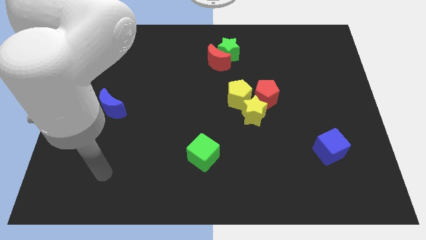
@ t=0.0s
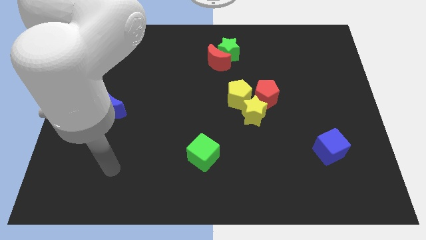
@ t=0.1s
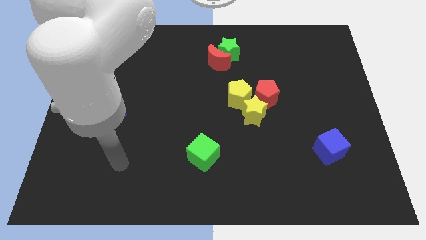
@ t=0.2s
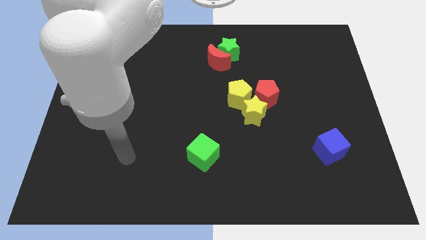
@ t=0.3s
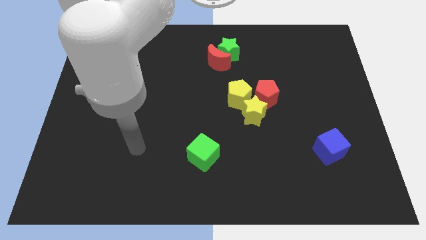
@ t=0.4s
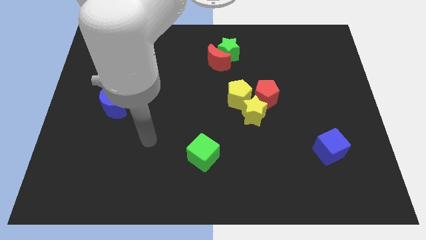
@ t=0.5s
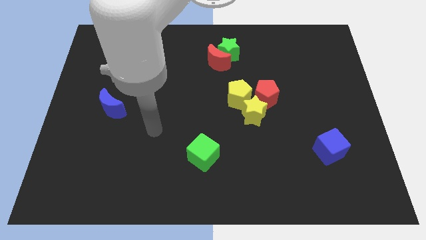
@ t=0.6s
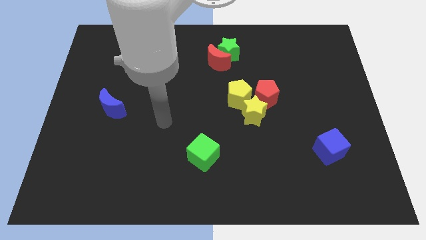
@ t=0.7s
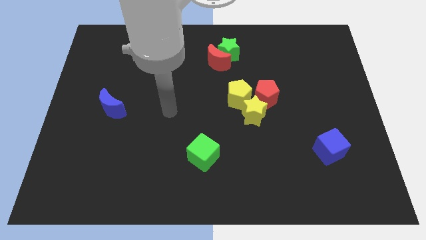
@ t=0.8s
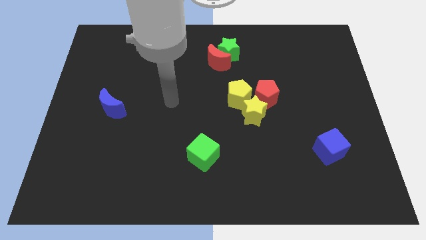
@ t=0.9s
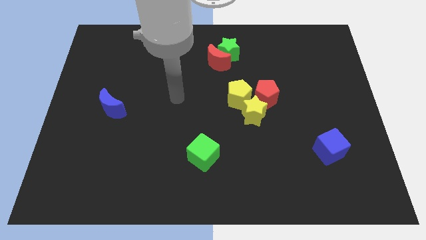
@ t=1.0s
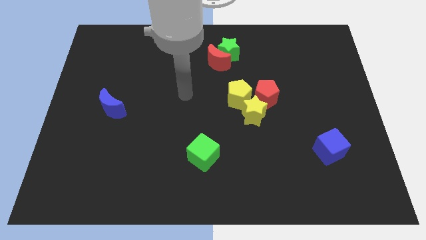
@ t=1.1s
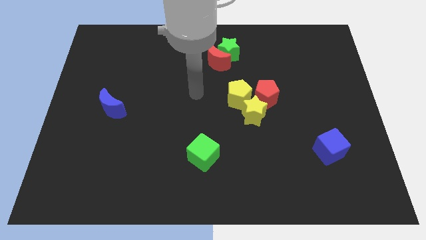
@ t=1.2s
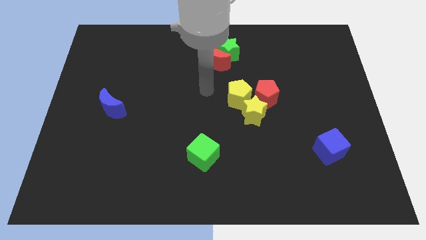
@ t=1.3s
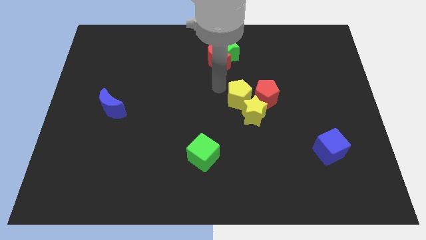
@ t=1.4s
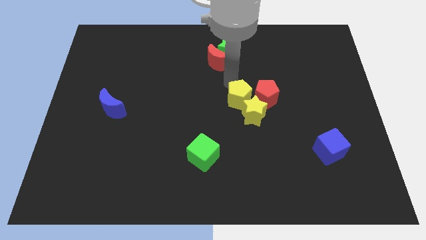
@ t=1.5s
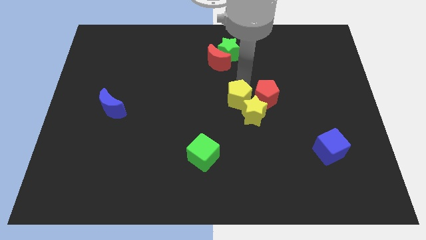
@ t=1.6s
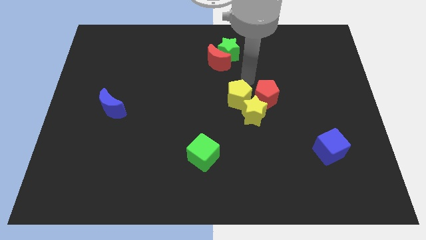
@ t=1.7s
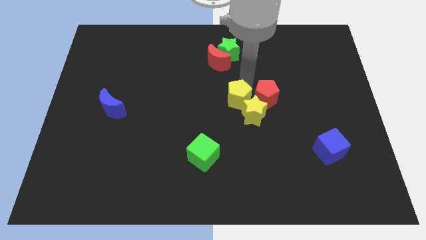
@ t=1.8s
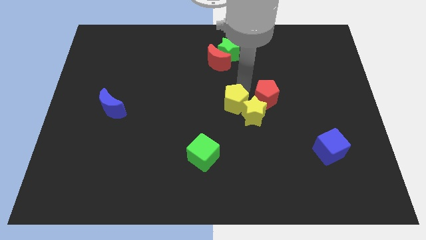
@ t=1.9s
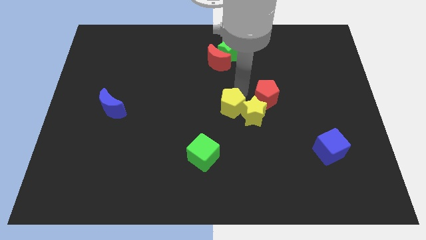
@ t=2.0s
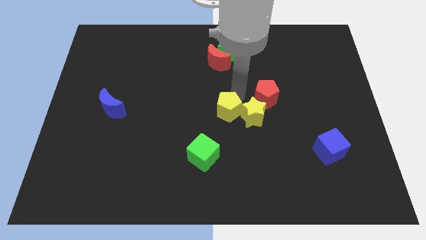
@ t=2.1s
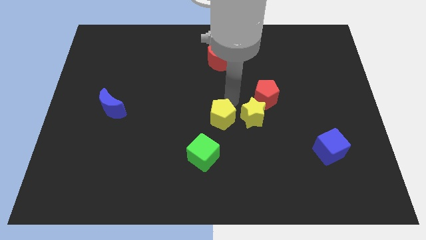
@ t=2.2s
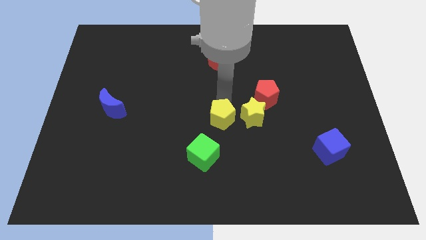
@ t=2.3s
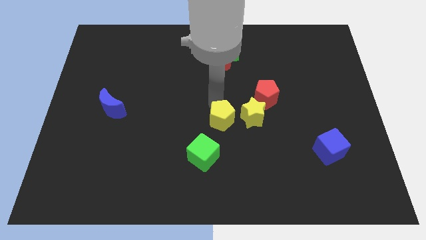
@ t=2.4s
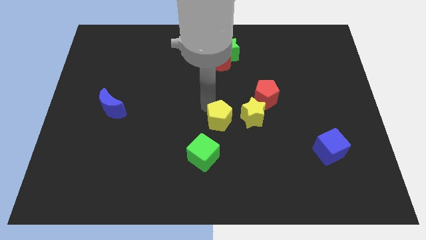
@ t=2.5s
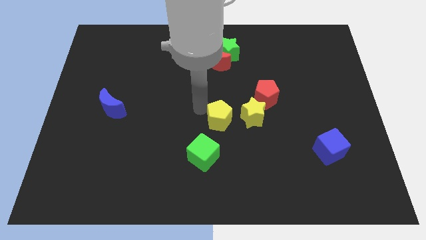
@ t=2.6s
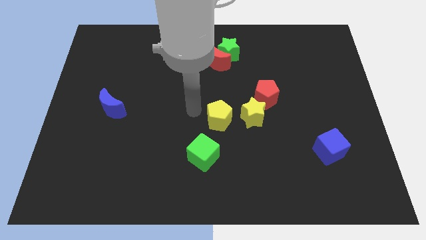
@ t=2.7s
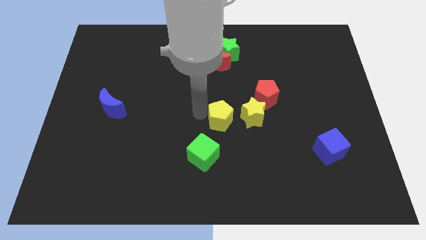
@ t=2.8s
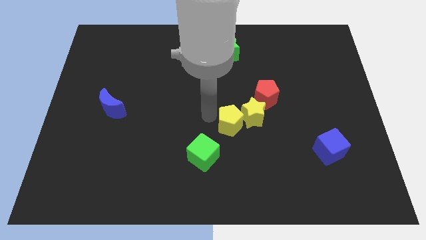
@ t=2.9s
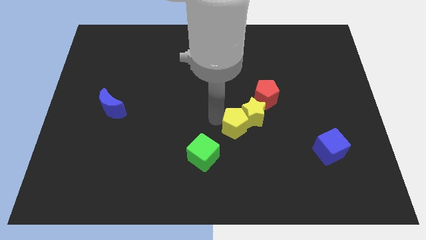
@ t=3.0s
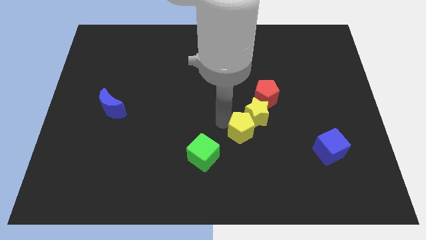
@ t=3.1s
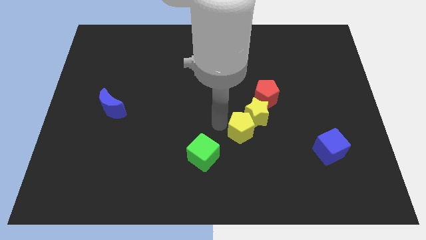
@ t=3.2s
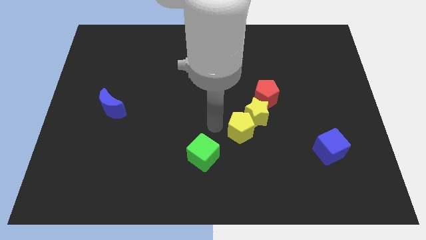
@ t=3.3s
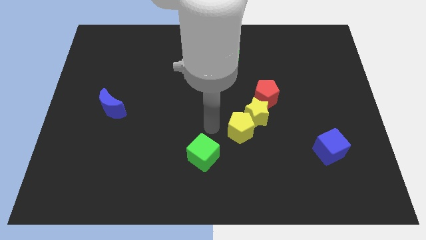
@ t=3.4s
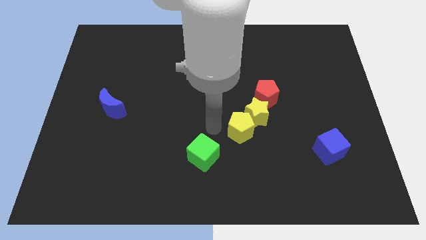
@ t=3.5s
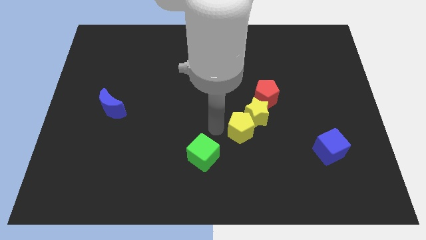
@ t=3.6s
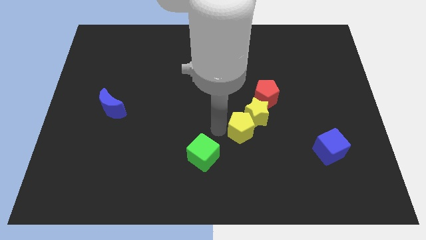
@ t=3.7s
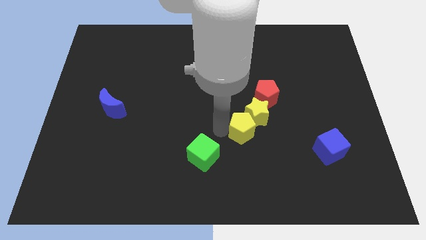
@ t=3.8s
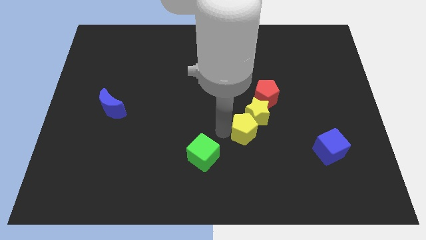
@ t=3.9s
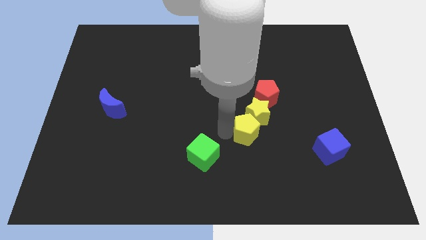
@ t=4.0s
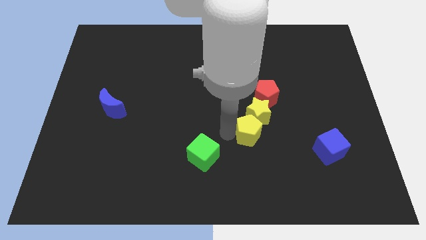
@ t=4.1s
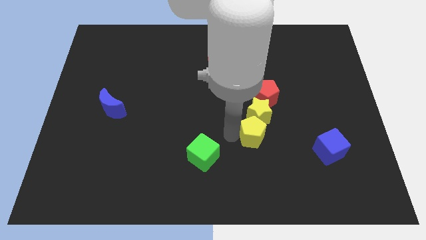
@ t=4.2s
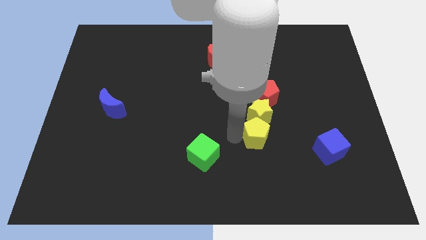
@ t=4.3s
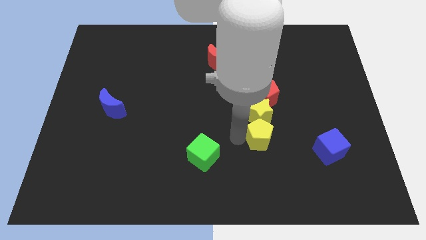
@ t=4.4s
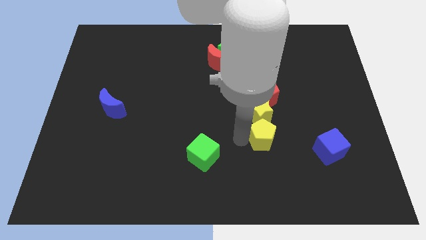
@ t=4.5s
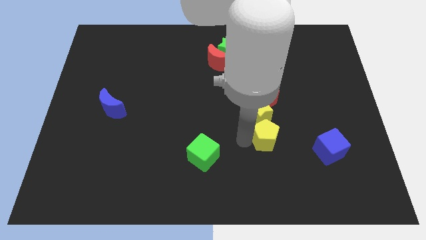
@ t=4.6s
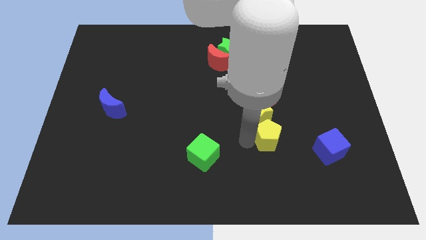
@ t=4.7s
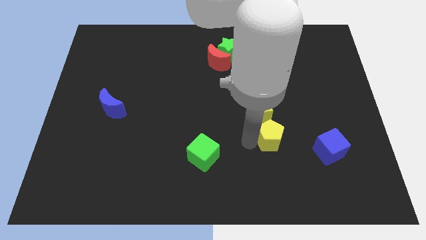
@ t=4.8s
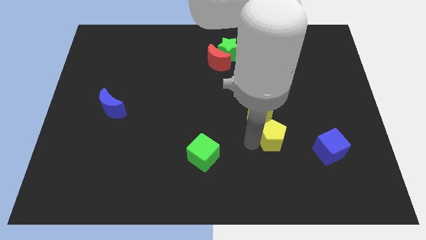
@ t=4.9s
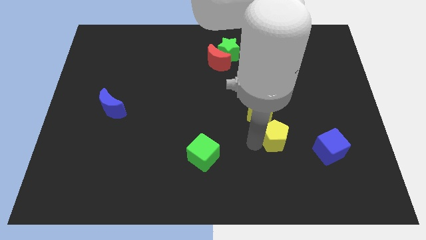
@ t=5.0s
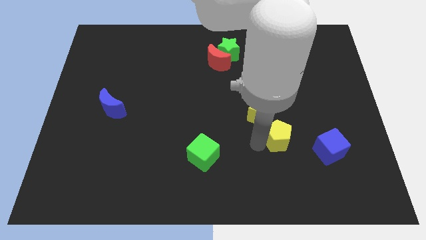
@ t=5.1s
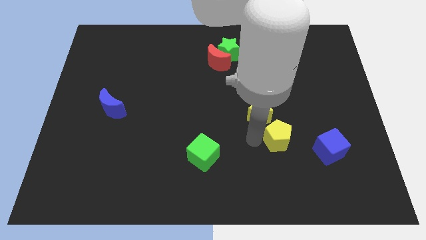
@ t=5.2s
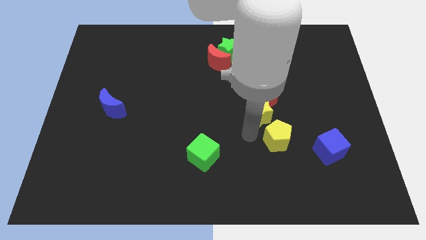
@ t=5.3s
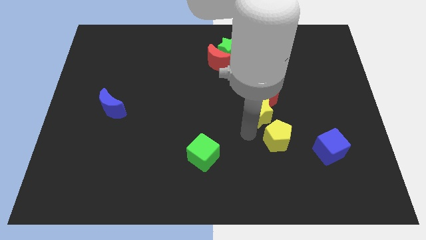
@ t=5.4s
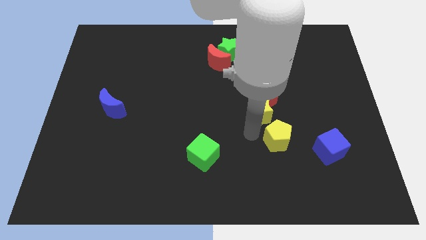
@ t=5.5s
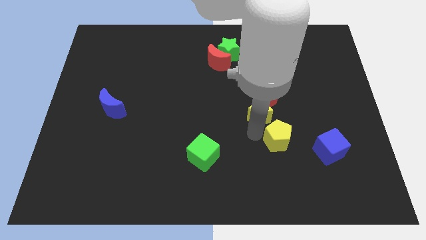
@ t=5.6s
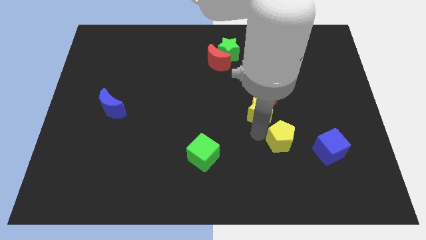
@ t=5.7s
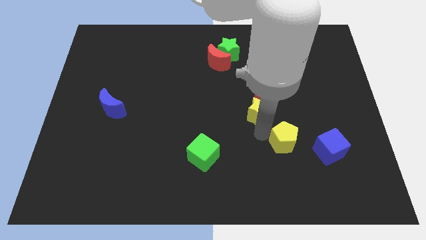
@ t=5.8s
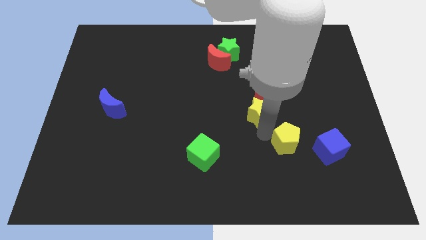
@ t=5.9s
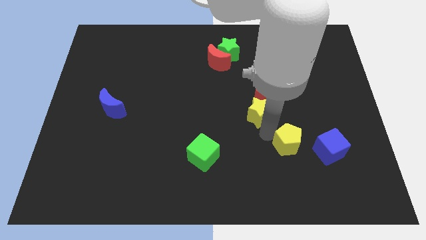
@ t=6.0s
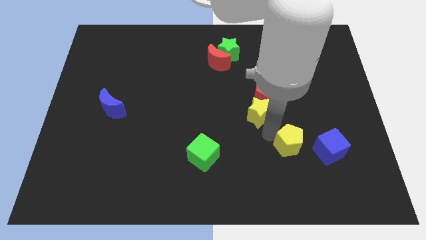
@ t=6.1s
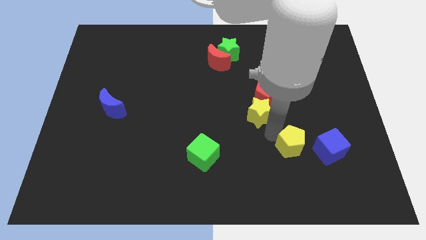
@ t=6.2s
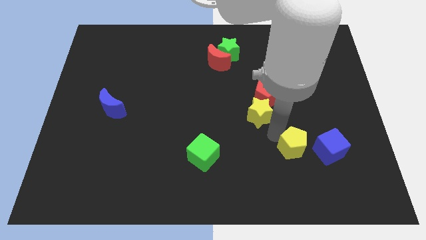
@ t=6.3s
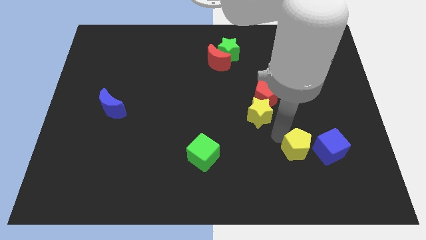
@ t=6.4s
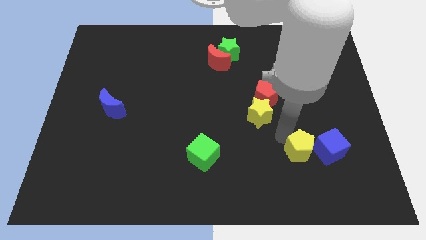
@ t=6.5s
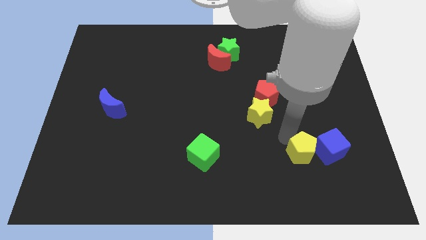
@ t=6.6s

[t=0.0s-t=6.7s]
move the yellow pentagon next to the blue cube

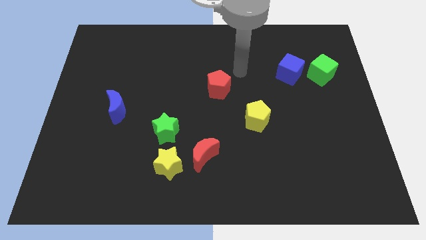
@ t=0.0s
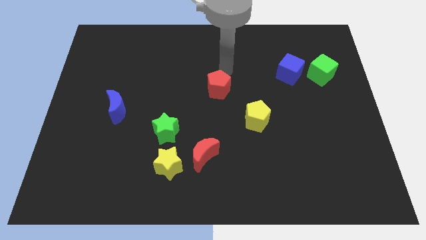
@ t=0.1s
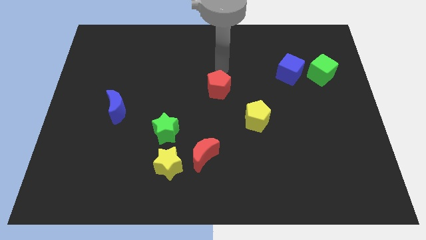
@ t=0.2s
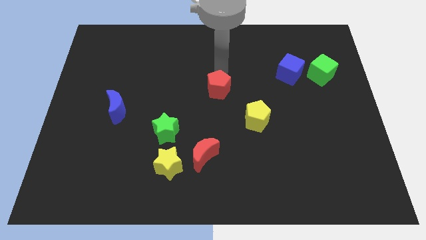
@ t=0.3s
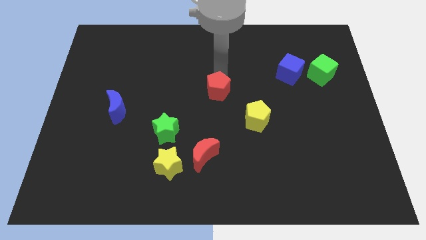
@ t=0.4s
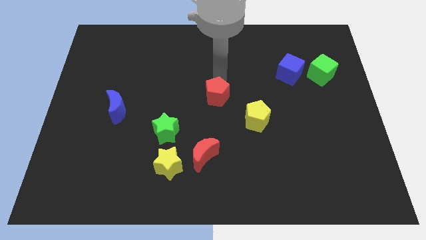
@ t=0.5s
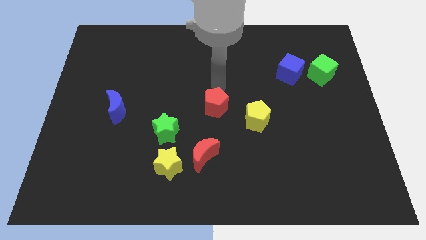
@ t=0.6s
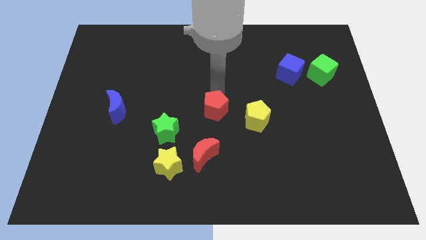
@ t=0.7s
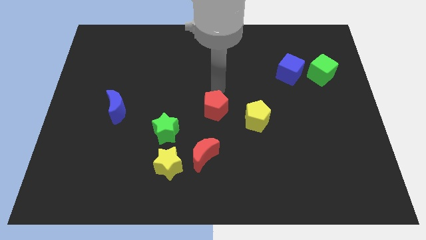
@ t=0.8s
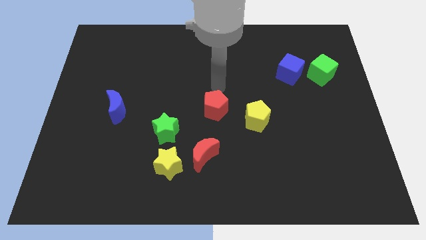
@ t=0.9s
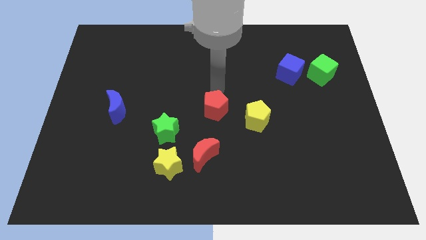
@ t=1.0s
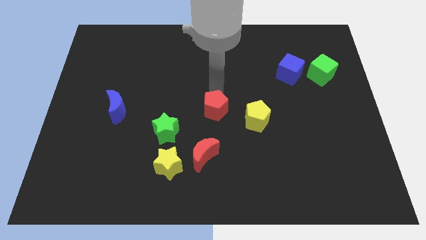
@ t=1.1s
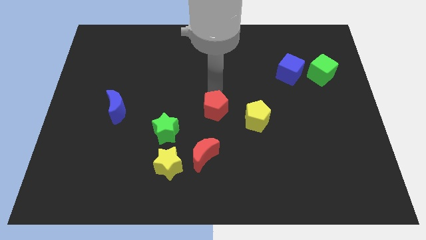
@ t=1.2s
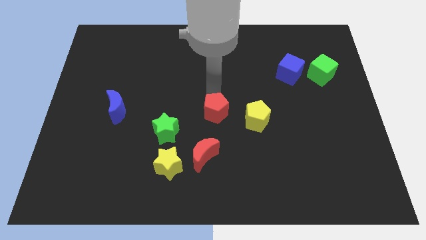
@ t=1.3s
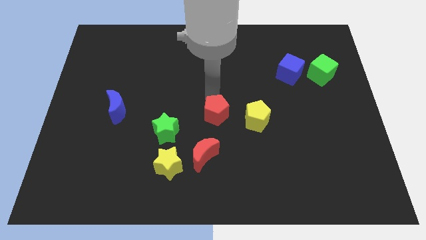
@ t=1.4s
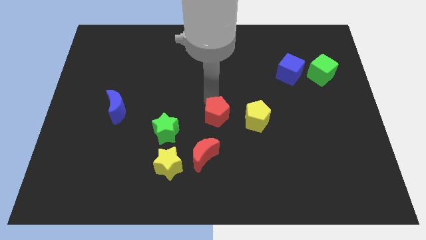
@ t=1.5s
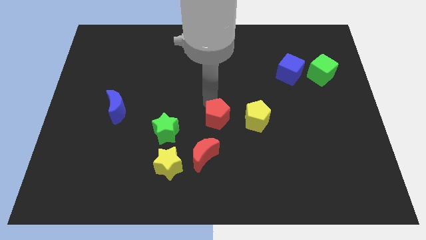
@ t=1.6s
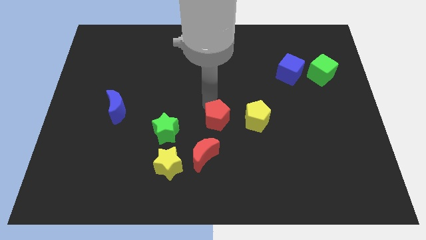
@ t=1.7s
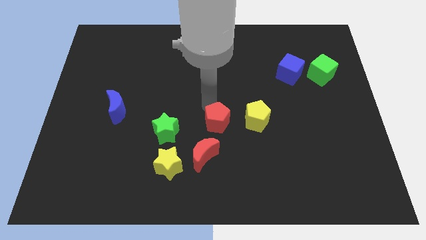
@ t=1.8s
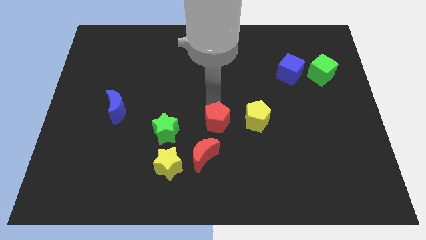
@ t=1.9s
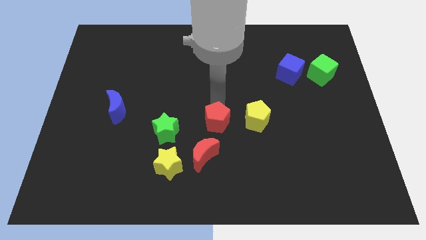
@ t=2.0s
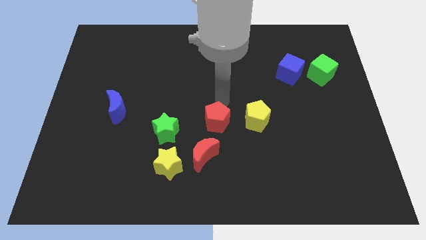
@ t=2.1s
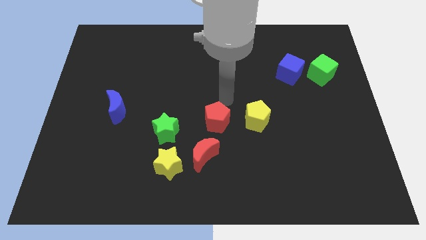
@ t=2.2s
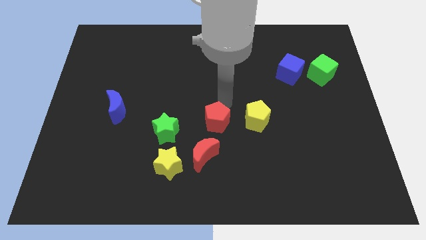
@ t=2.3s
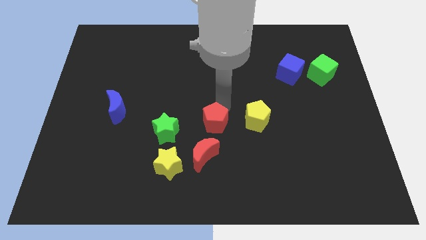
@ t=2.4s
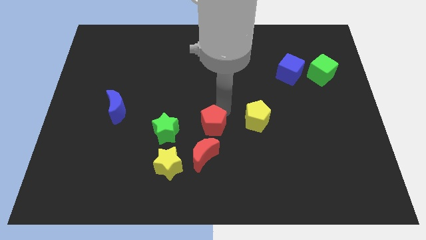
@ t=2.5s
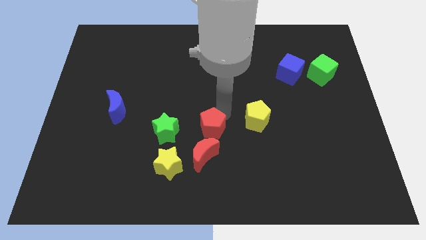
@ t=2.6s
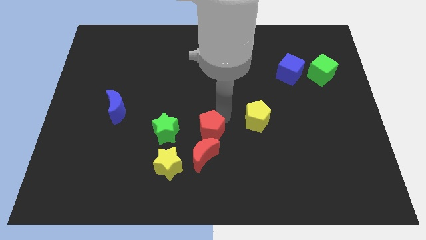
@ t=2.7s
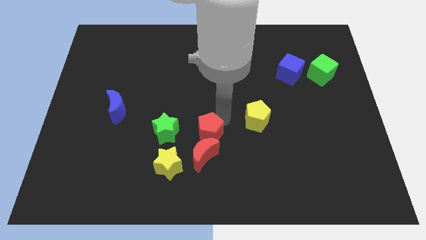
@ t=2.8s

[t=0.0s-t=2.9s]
slide the red pentagon close to the red moon
